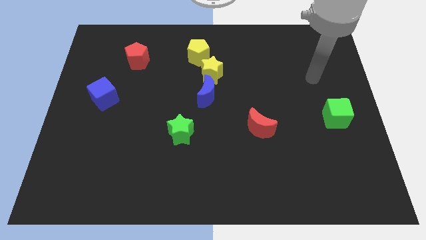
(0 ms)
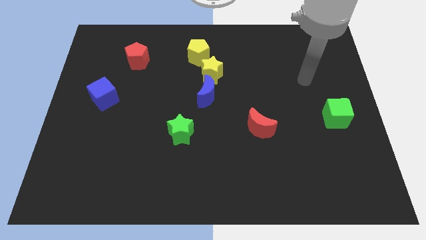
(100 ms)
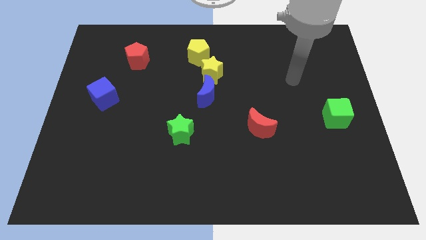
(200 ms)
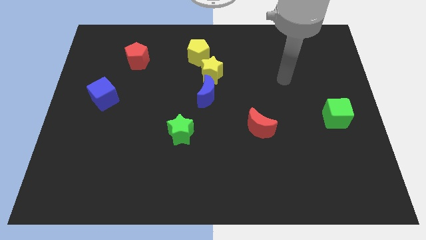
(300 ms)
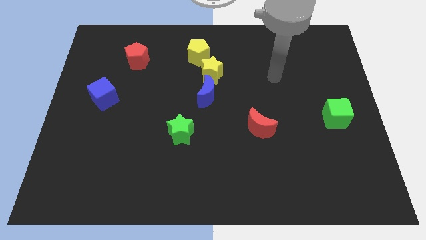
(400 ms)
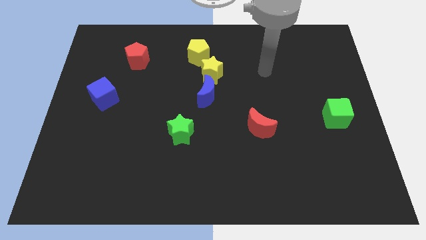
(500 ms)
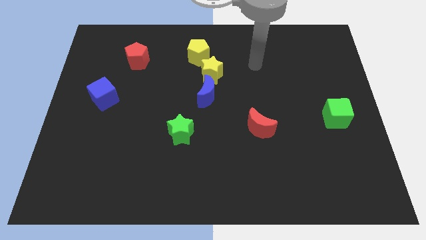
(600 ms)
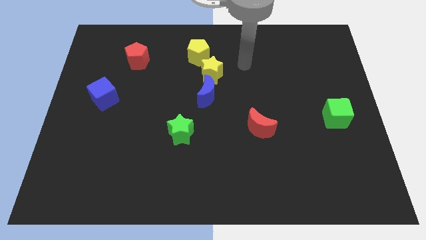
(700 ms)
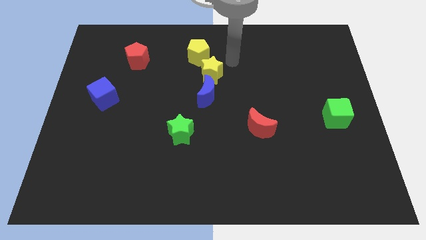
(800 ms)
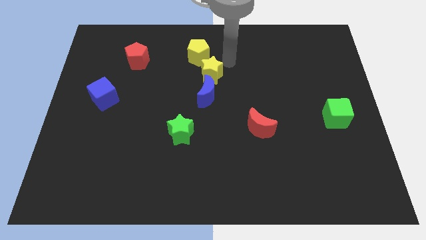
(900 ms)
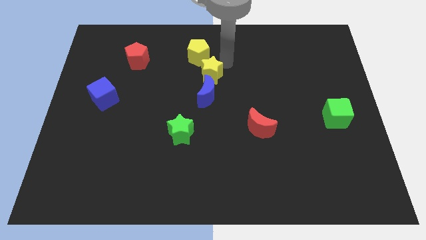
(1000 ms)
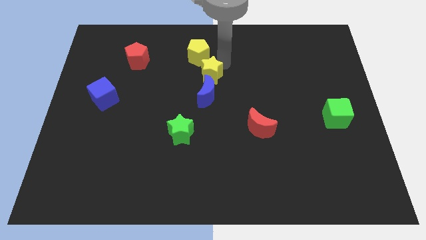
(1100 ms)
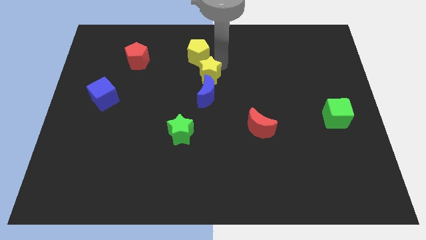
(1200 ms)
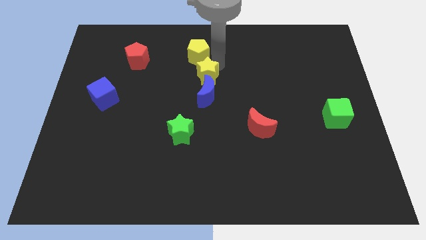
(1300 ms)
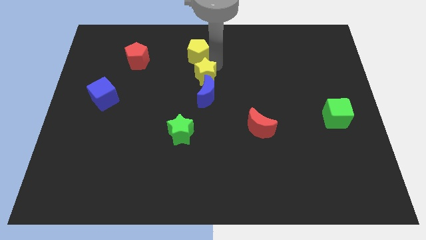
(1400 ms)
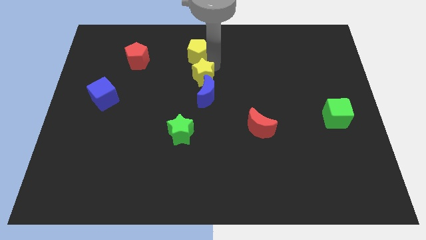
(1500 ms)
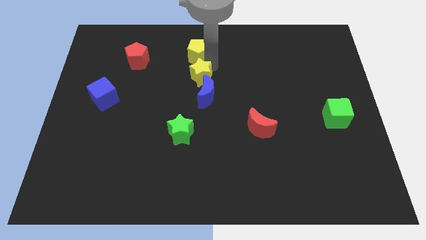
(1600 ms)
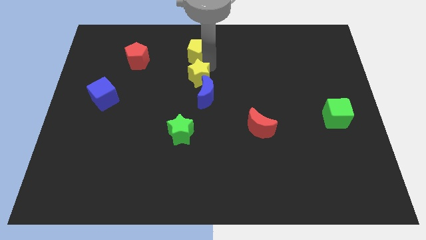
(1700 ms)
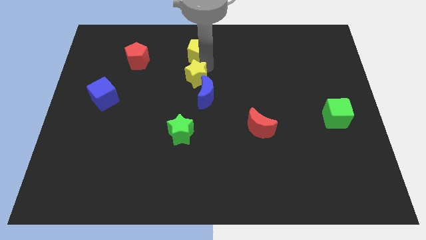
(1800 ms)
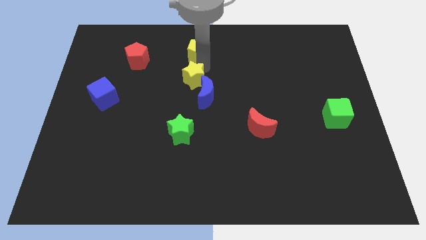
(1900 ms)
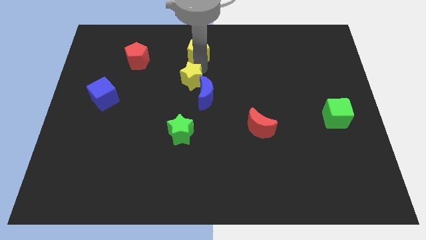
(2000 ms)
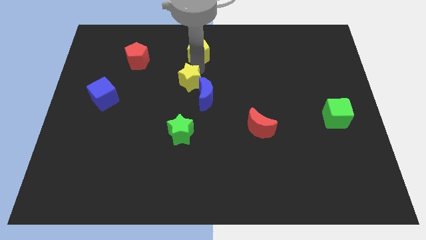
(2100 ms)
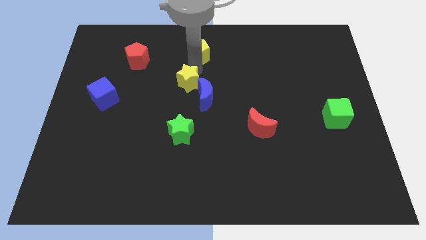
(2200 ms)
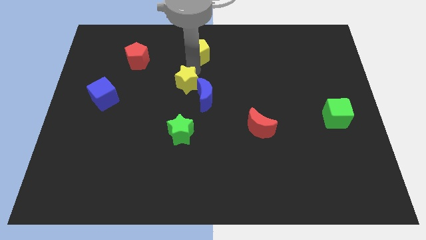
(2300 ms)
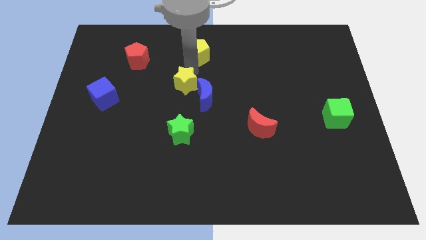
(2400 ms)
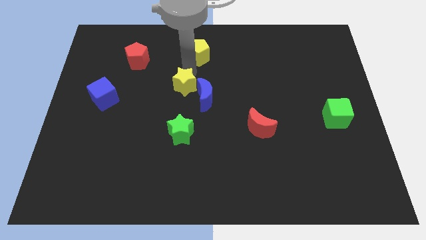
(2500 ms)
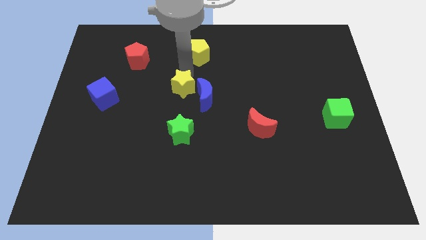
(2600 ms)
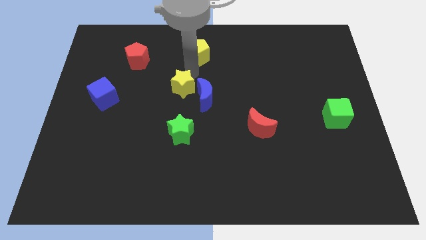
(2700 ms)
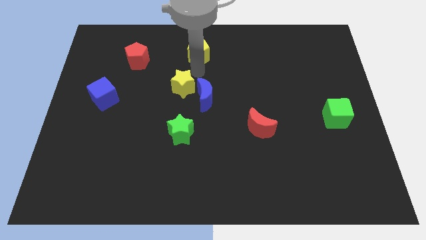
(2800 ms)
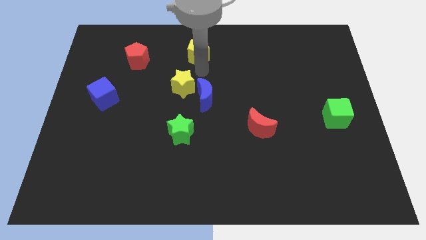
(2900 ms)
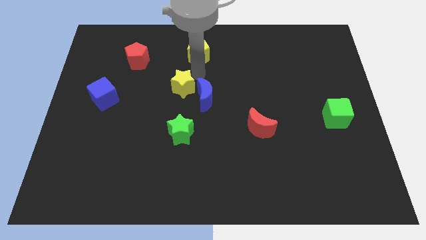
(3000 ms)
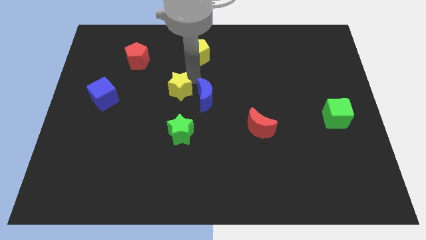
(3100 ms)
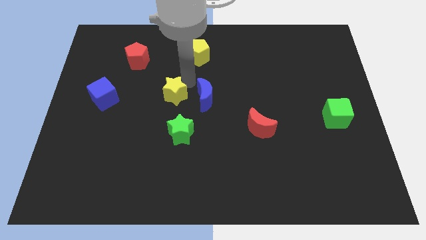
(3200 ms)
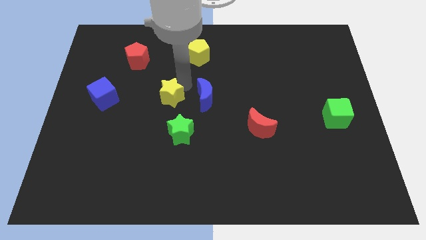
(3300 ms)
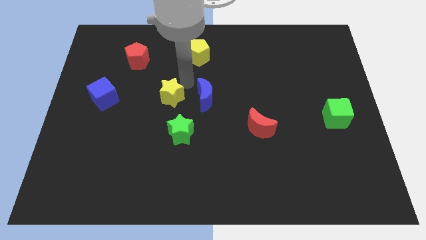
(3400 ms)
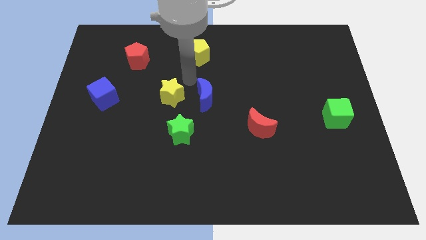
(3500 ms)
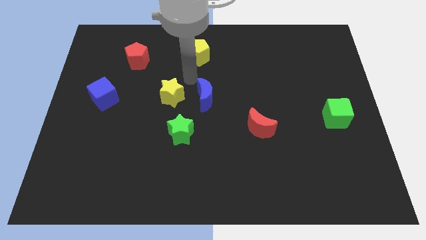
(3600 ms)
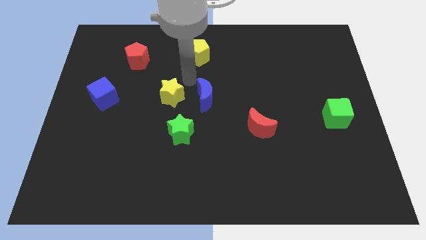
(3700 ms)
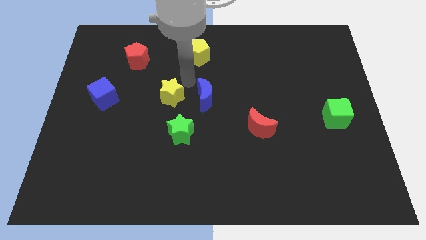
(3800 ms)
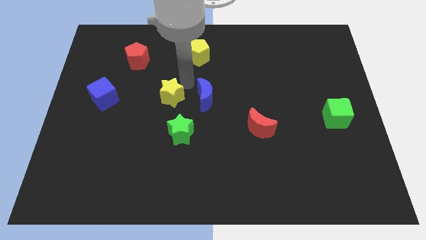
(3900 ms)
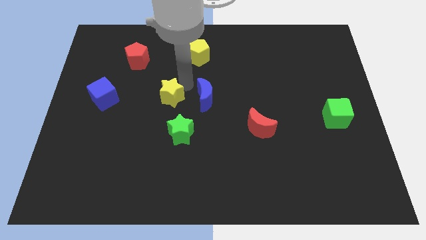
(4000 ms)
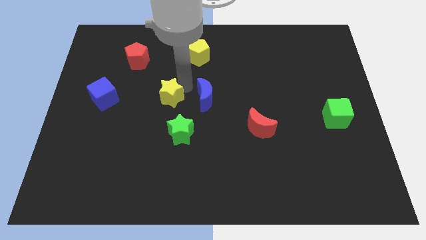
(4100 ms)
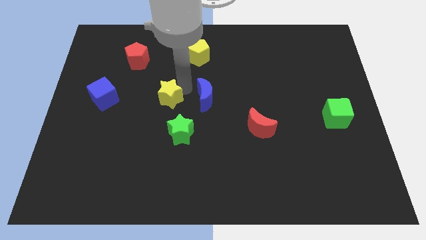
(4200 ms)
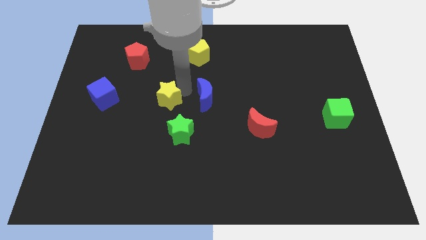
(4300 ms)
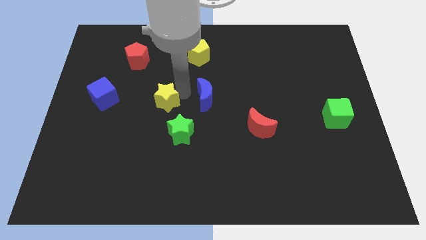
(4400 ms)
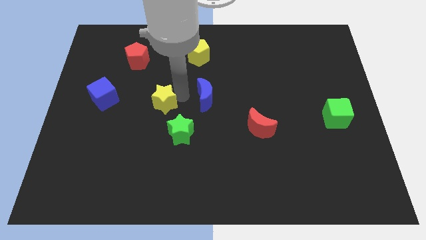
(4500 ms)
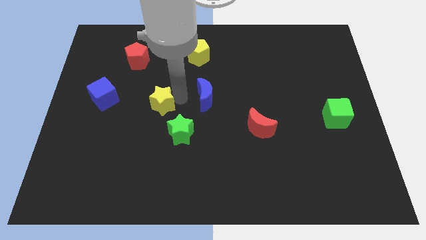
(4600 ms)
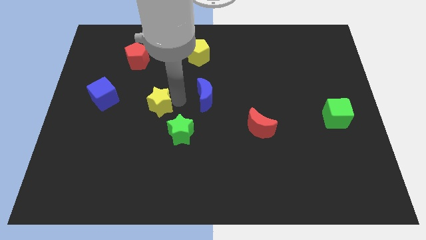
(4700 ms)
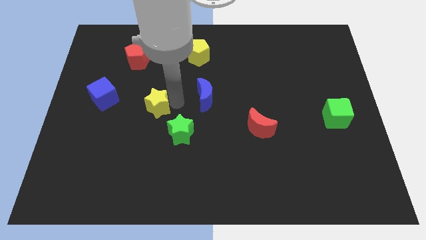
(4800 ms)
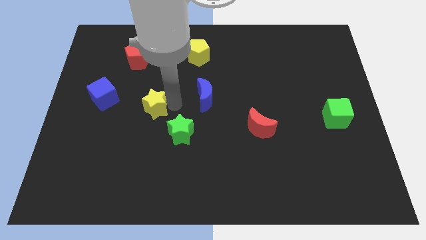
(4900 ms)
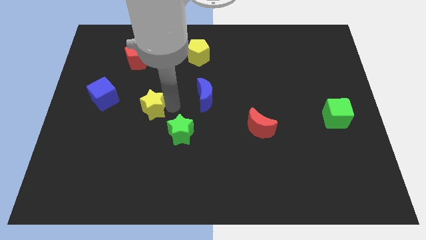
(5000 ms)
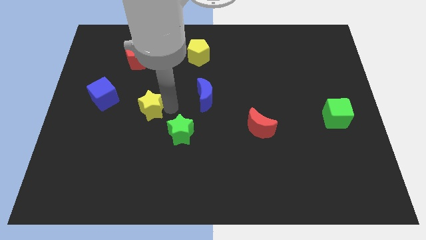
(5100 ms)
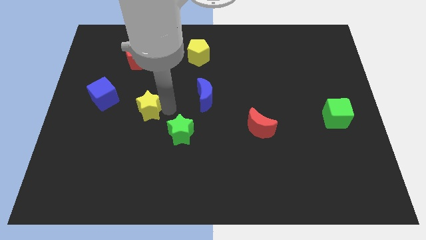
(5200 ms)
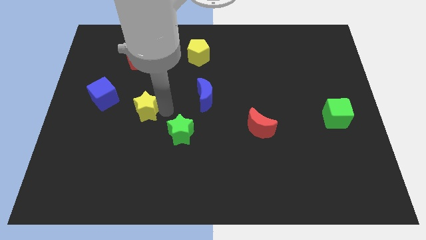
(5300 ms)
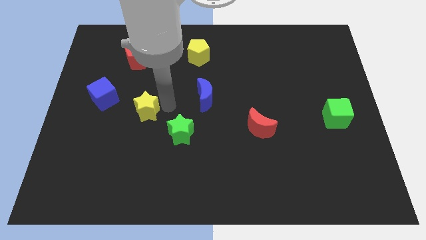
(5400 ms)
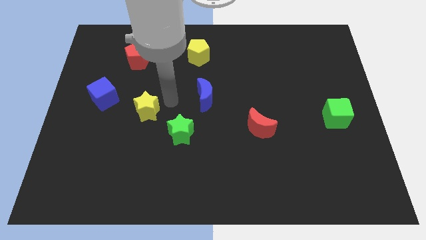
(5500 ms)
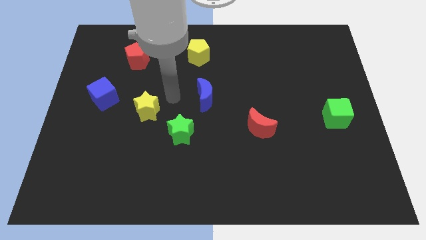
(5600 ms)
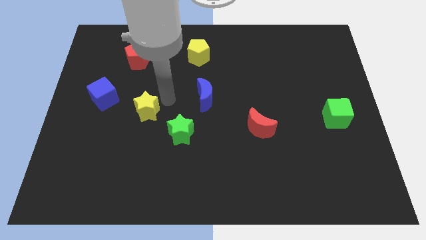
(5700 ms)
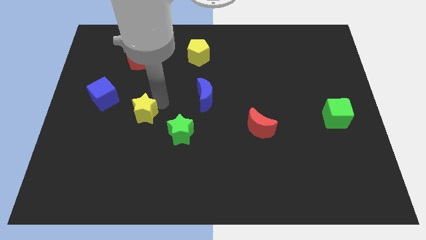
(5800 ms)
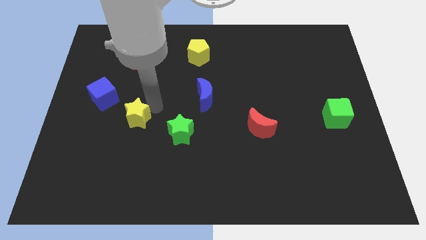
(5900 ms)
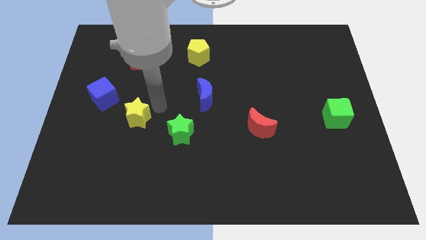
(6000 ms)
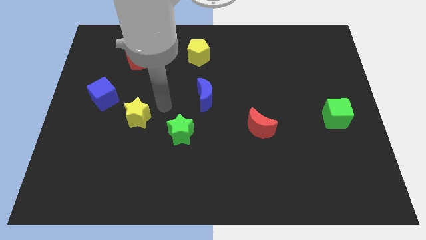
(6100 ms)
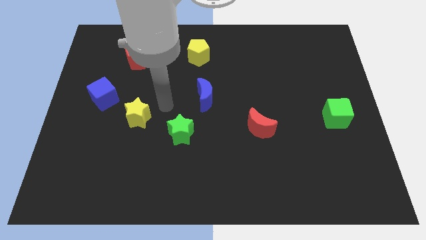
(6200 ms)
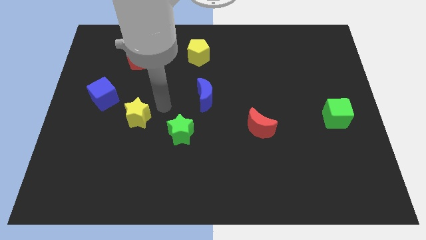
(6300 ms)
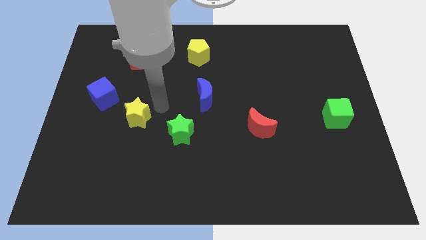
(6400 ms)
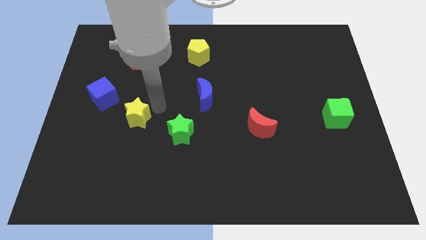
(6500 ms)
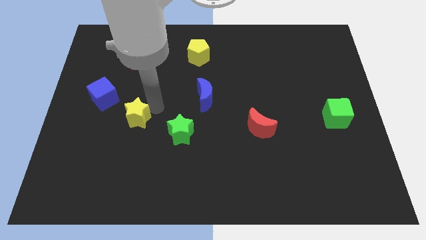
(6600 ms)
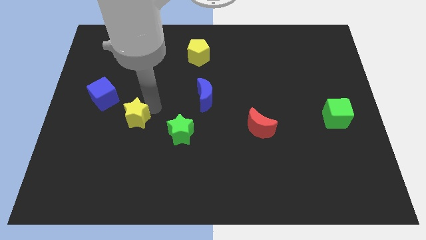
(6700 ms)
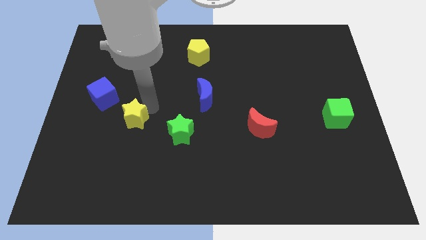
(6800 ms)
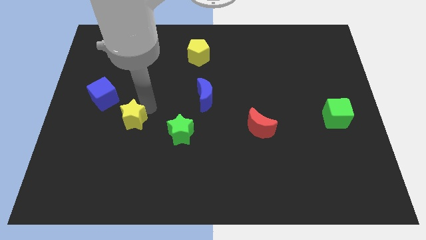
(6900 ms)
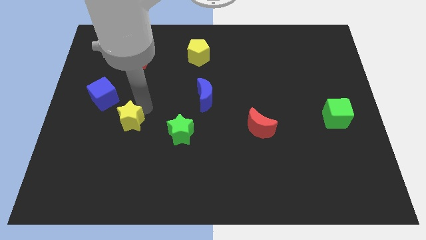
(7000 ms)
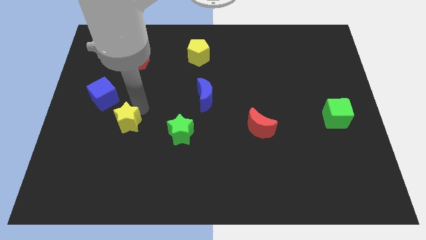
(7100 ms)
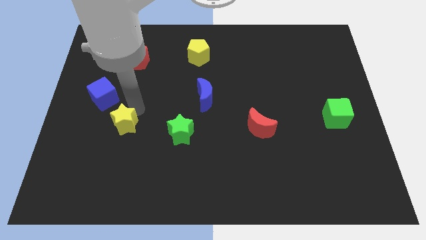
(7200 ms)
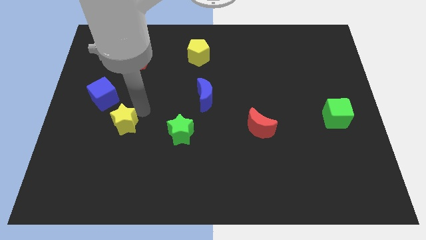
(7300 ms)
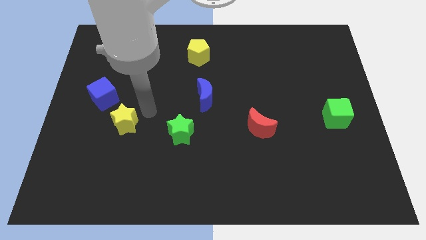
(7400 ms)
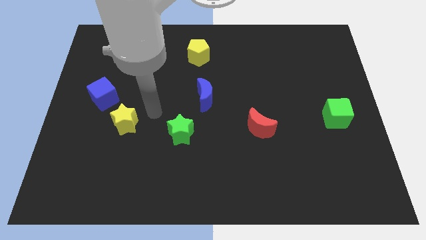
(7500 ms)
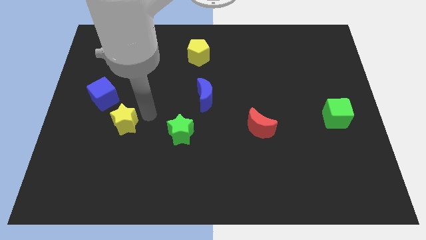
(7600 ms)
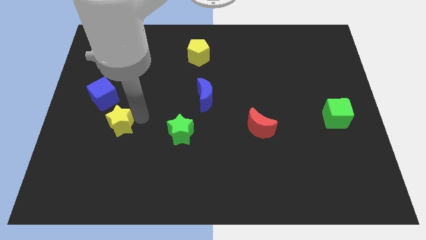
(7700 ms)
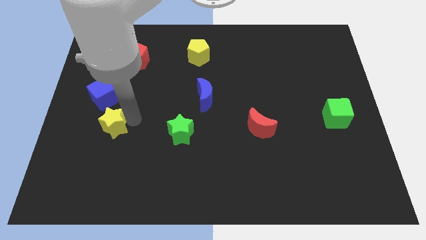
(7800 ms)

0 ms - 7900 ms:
push the yellow star to the bottom side of the blue cube
